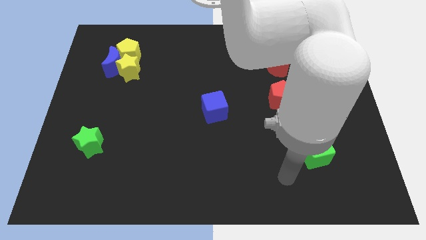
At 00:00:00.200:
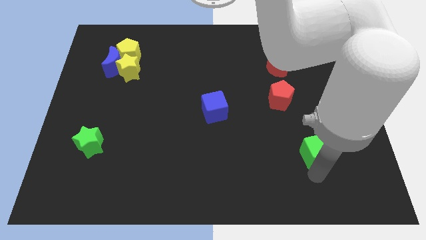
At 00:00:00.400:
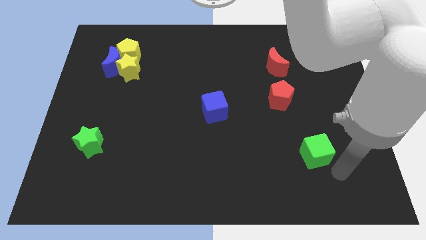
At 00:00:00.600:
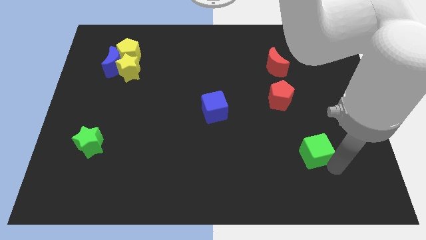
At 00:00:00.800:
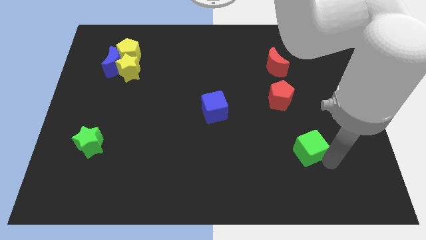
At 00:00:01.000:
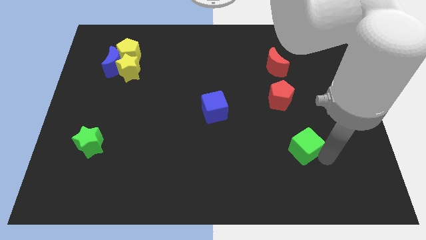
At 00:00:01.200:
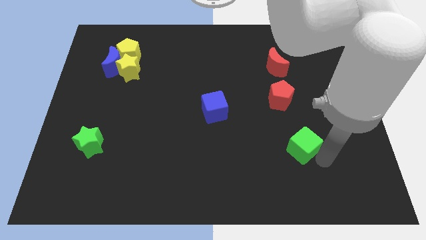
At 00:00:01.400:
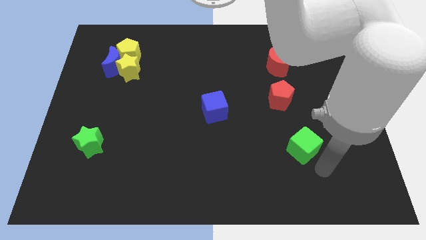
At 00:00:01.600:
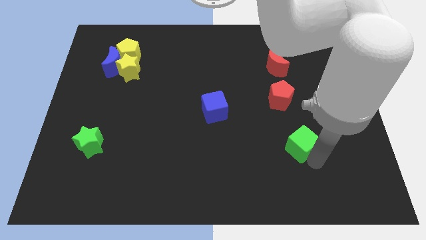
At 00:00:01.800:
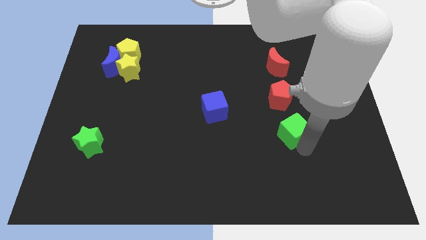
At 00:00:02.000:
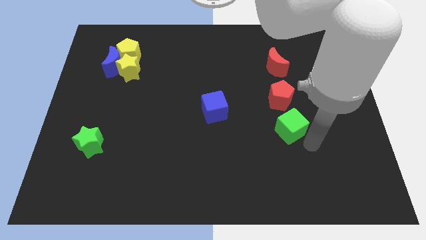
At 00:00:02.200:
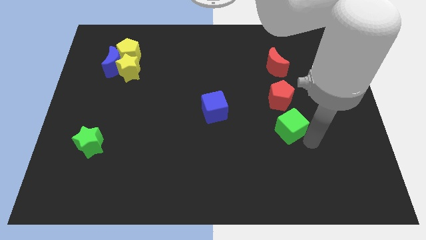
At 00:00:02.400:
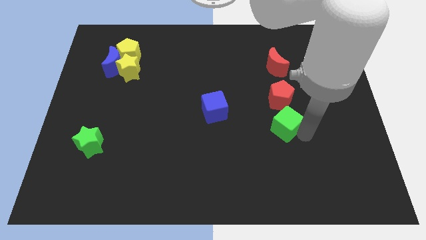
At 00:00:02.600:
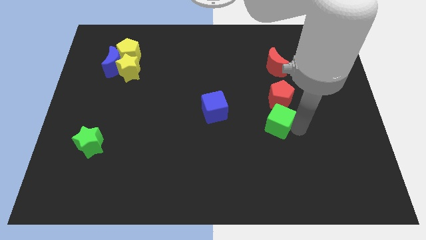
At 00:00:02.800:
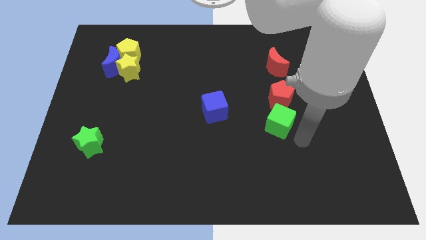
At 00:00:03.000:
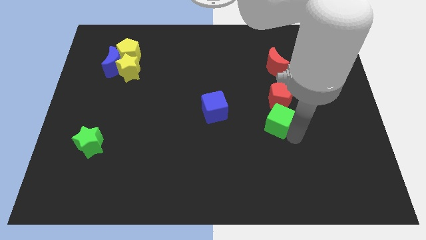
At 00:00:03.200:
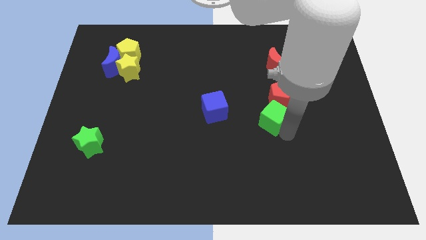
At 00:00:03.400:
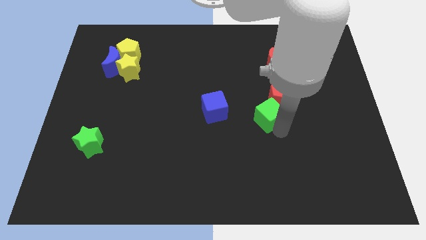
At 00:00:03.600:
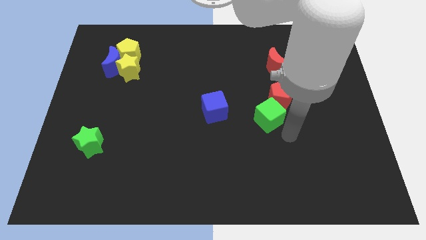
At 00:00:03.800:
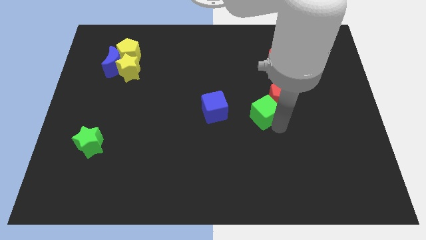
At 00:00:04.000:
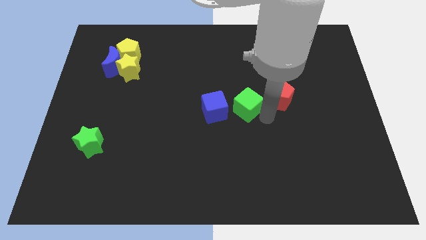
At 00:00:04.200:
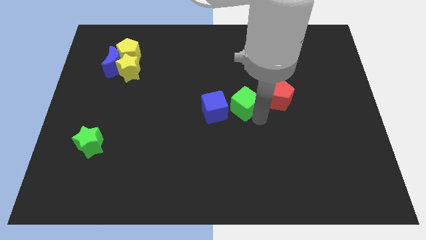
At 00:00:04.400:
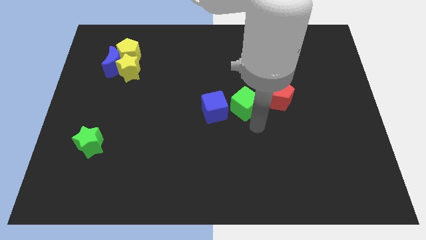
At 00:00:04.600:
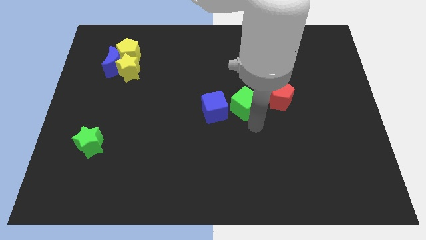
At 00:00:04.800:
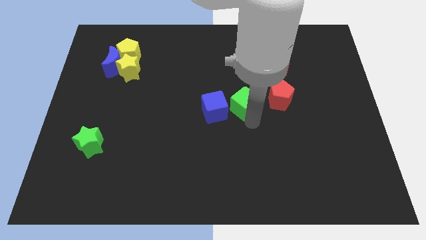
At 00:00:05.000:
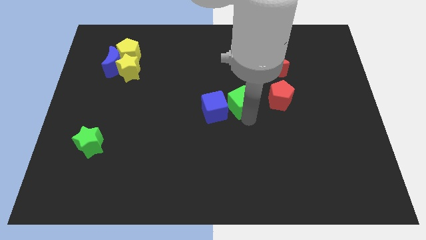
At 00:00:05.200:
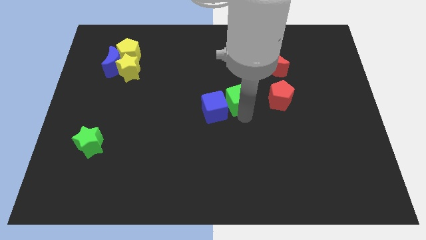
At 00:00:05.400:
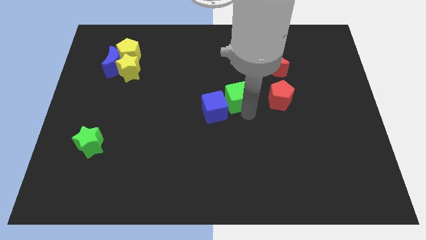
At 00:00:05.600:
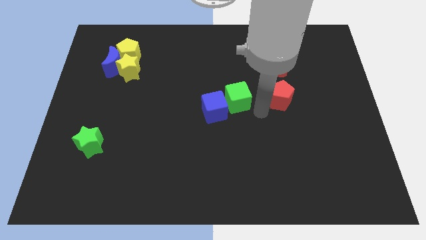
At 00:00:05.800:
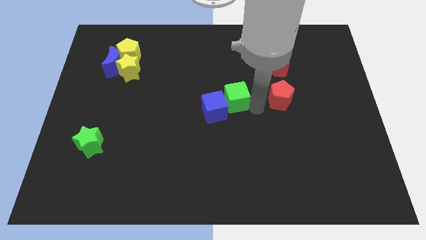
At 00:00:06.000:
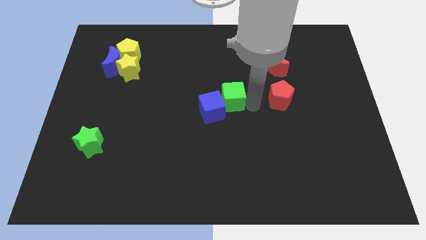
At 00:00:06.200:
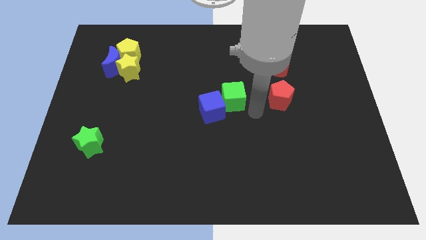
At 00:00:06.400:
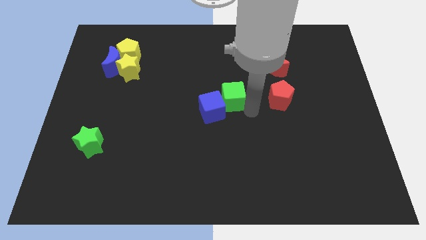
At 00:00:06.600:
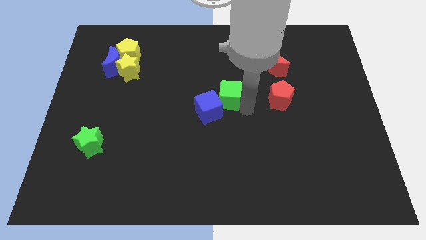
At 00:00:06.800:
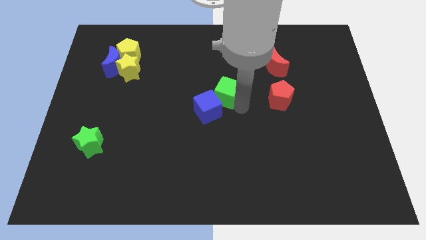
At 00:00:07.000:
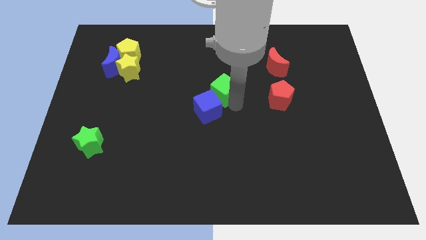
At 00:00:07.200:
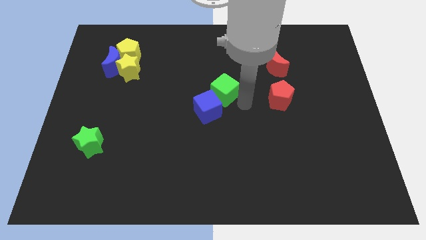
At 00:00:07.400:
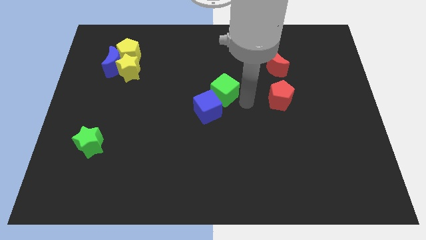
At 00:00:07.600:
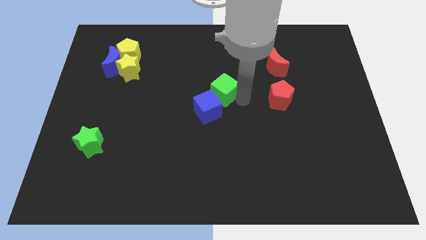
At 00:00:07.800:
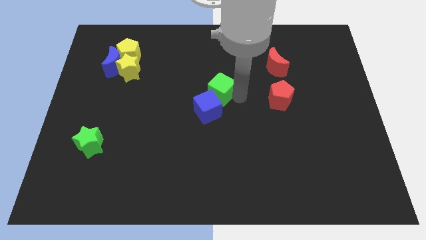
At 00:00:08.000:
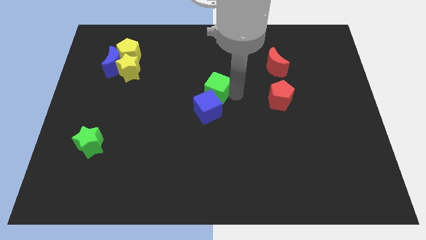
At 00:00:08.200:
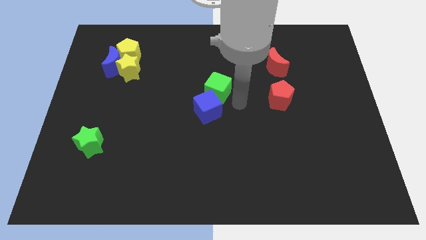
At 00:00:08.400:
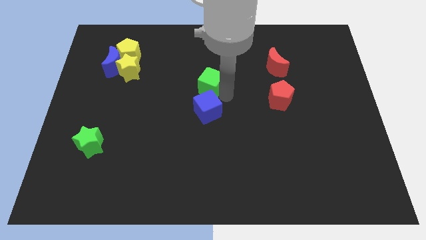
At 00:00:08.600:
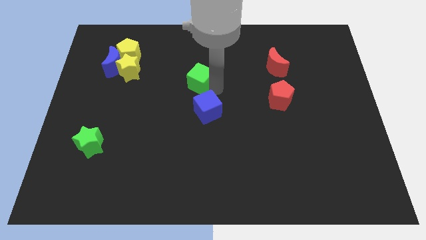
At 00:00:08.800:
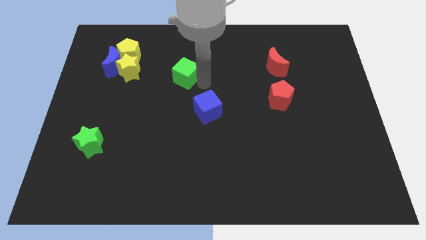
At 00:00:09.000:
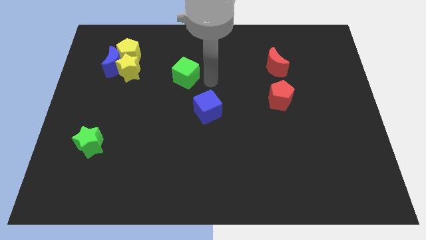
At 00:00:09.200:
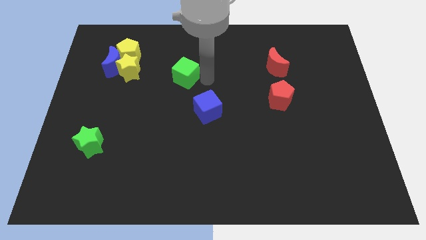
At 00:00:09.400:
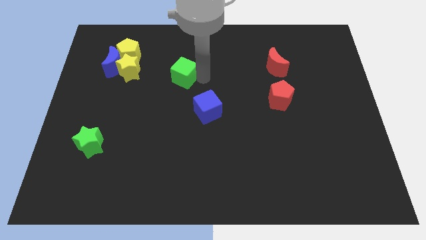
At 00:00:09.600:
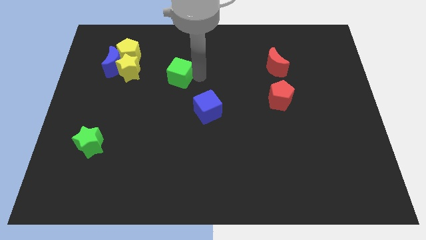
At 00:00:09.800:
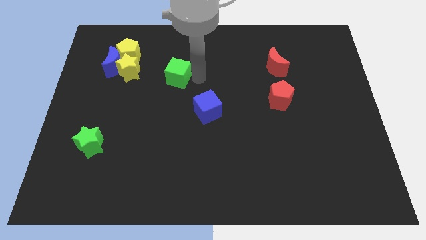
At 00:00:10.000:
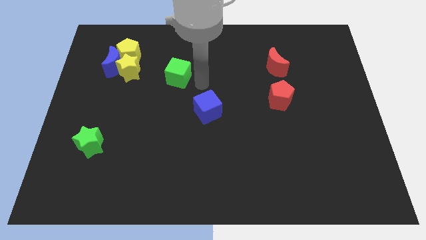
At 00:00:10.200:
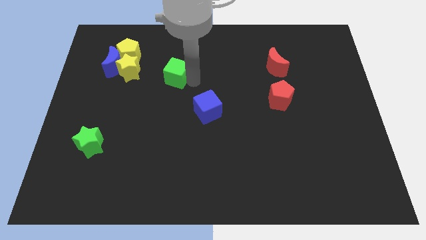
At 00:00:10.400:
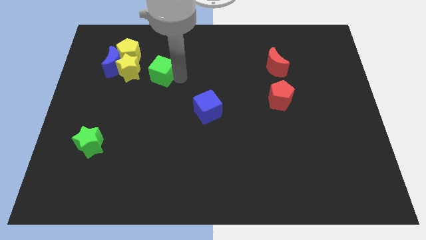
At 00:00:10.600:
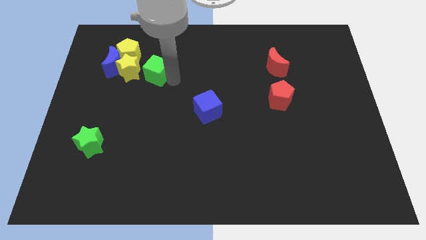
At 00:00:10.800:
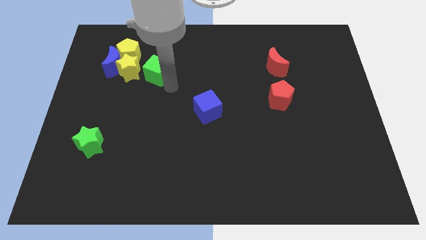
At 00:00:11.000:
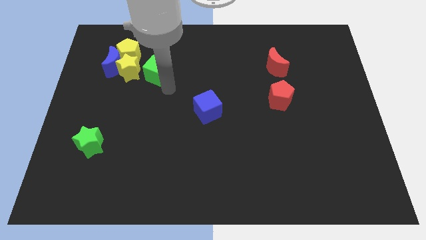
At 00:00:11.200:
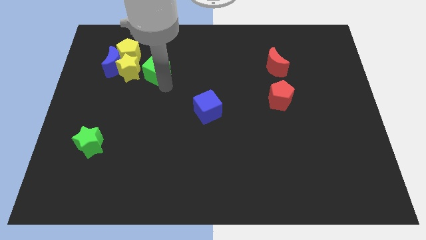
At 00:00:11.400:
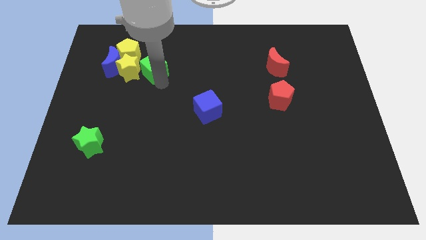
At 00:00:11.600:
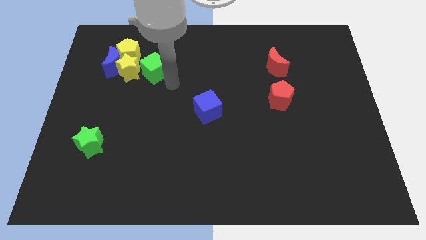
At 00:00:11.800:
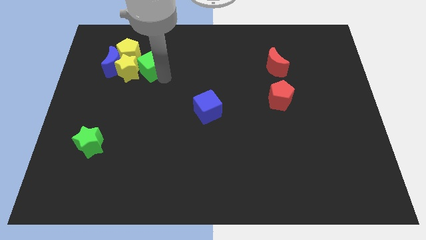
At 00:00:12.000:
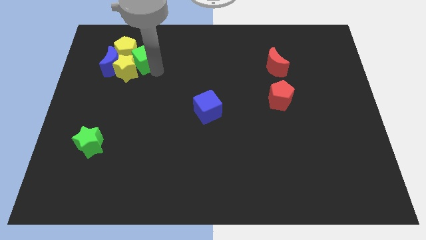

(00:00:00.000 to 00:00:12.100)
push the green cube close to the yellow pentagon

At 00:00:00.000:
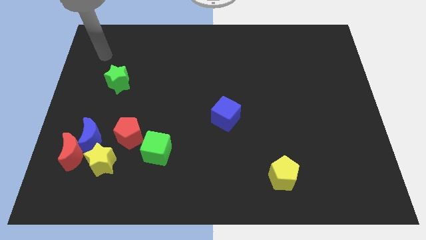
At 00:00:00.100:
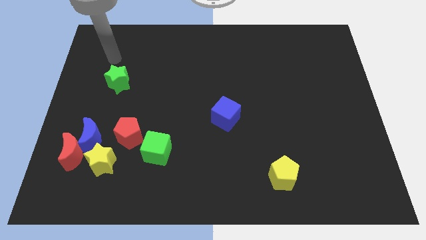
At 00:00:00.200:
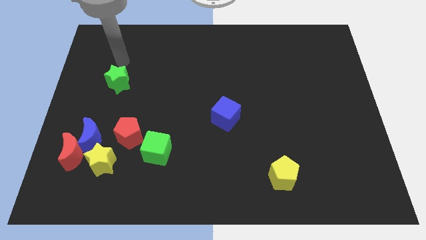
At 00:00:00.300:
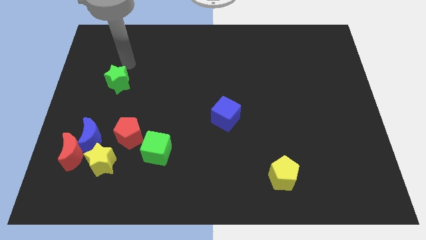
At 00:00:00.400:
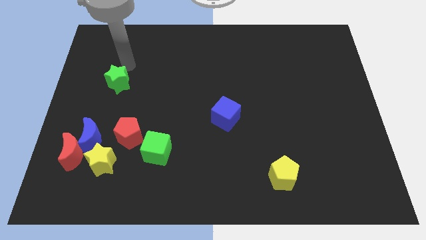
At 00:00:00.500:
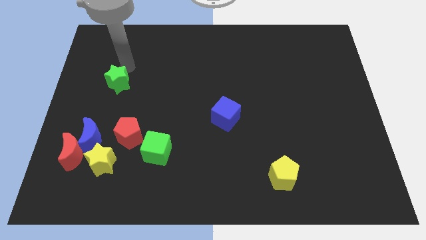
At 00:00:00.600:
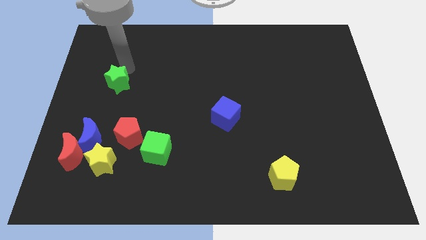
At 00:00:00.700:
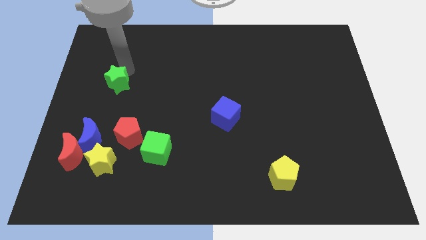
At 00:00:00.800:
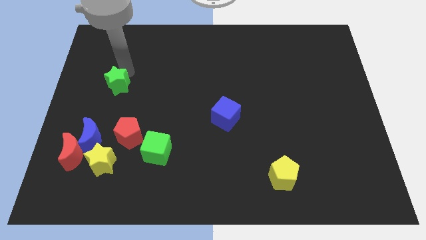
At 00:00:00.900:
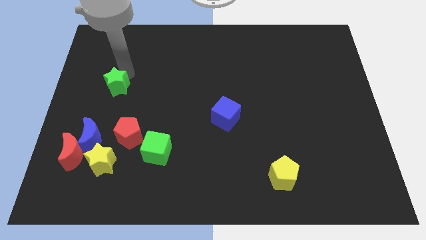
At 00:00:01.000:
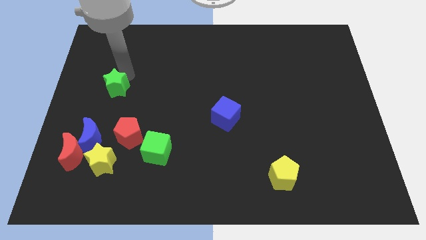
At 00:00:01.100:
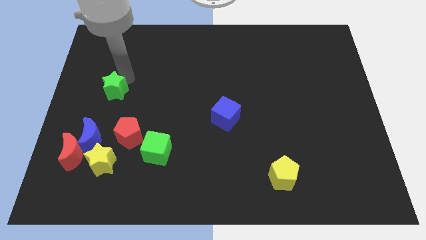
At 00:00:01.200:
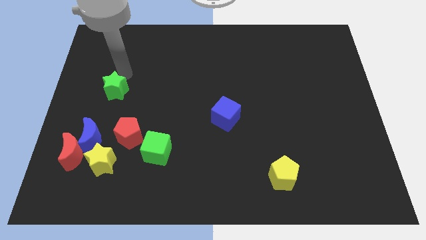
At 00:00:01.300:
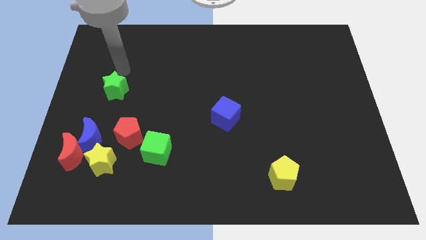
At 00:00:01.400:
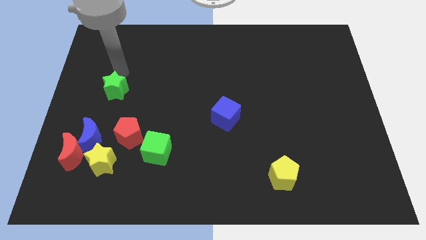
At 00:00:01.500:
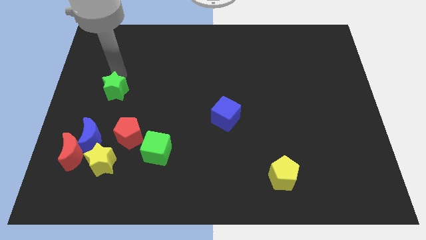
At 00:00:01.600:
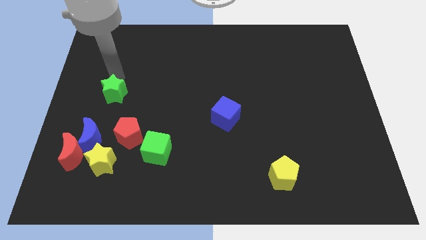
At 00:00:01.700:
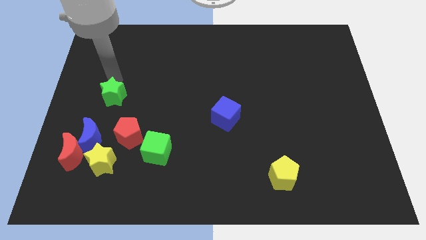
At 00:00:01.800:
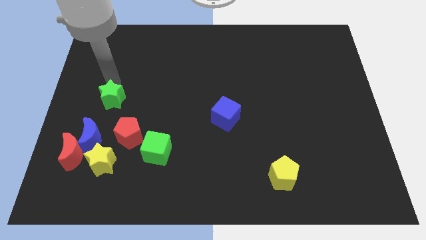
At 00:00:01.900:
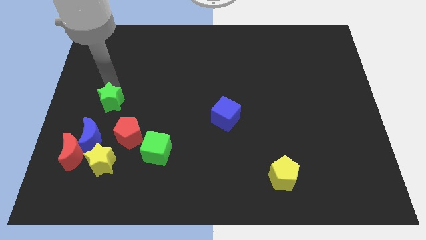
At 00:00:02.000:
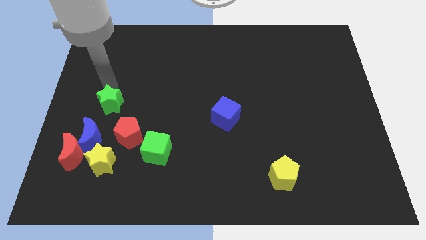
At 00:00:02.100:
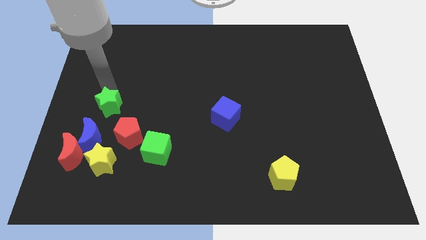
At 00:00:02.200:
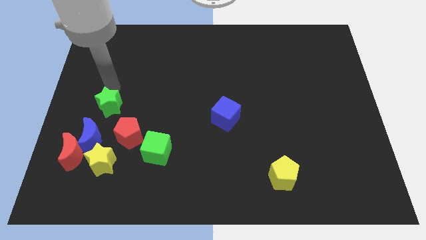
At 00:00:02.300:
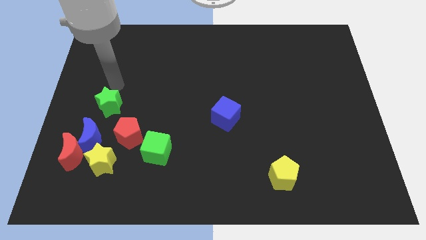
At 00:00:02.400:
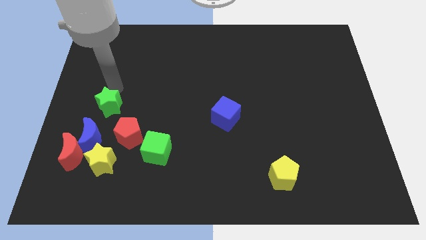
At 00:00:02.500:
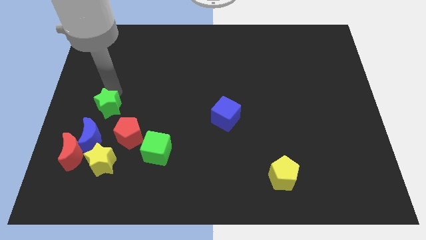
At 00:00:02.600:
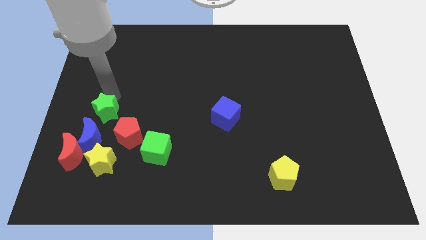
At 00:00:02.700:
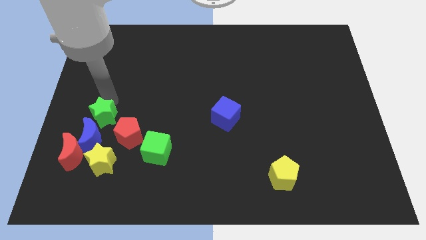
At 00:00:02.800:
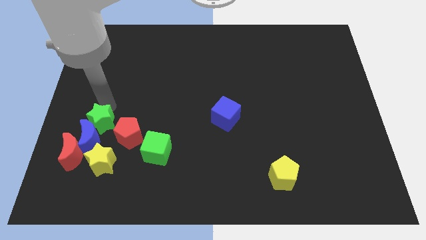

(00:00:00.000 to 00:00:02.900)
put the green star close to the blue moon
